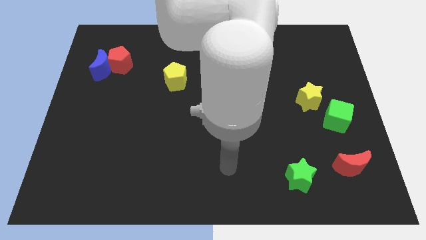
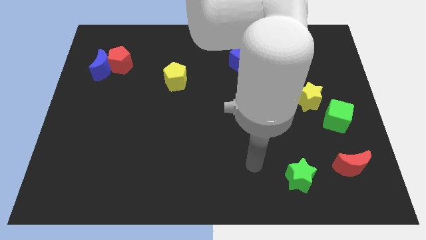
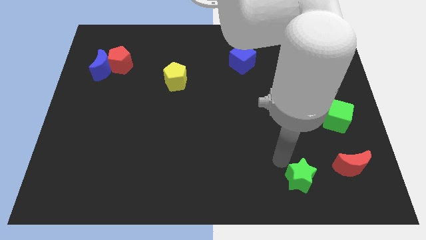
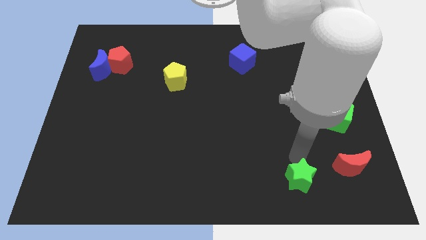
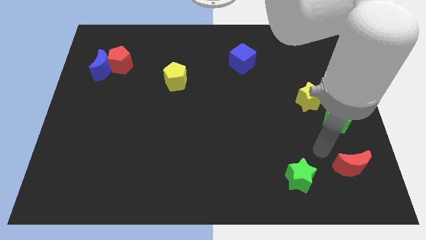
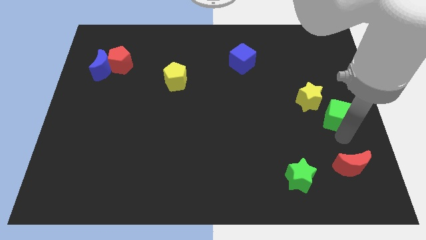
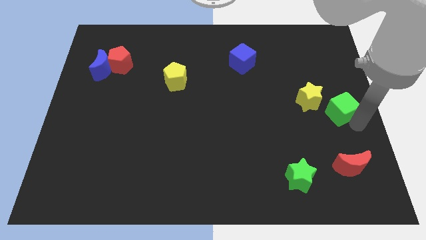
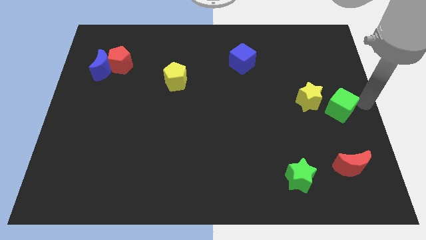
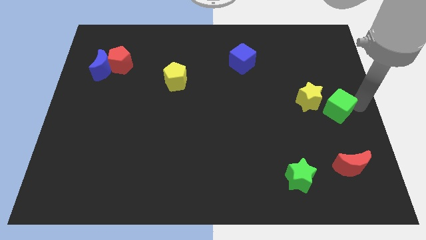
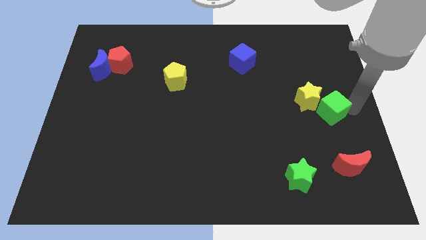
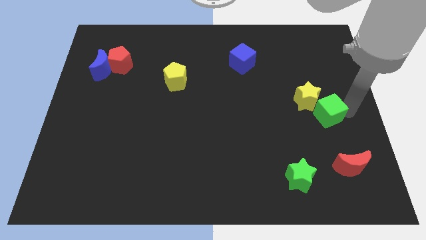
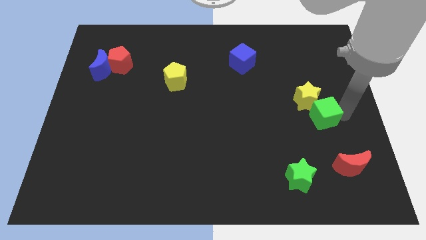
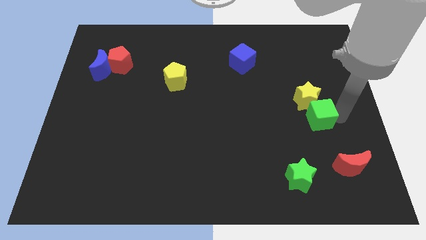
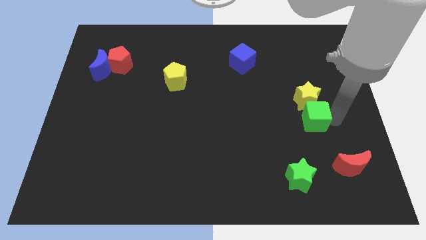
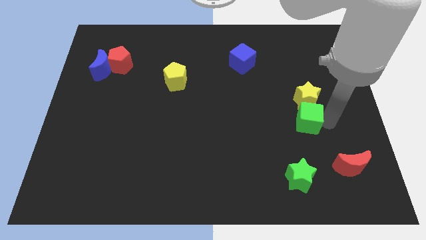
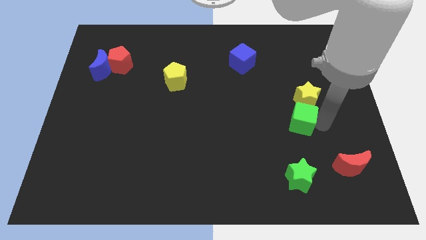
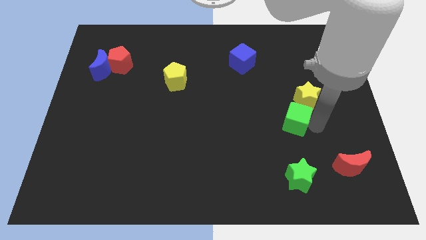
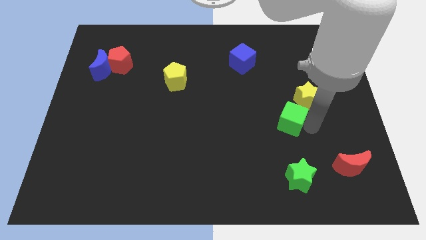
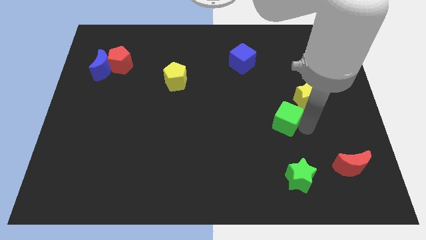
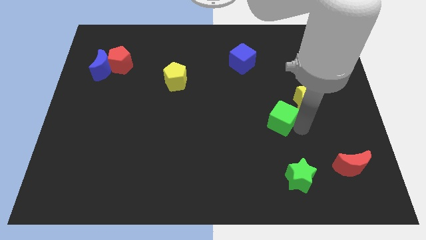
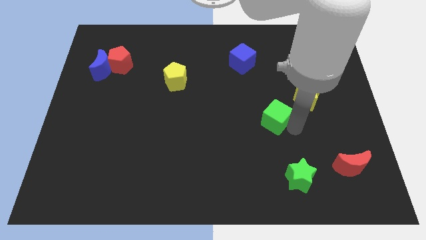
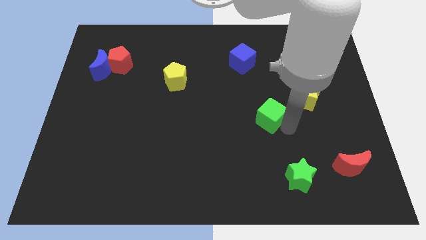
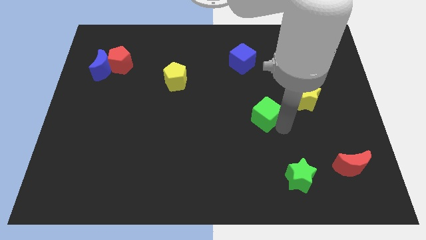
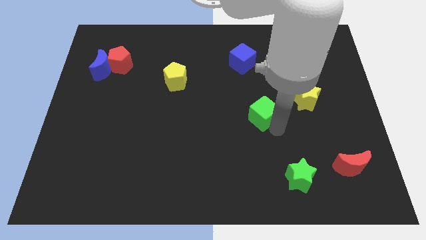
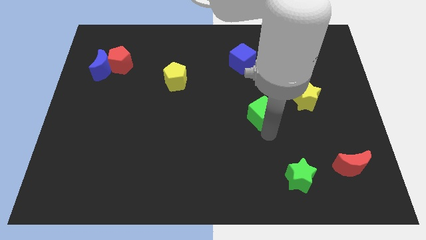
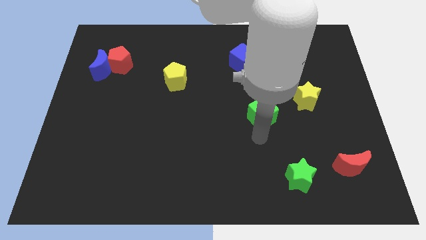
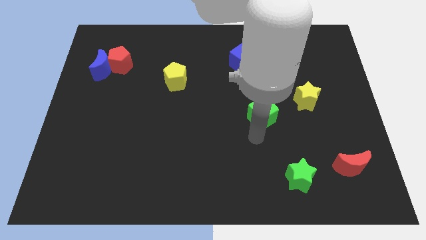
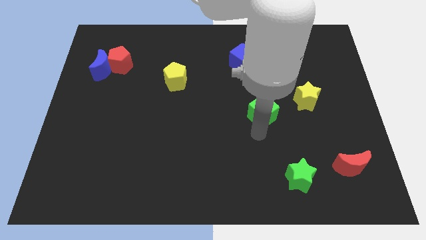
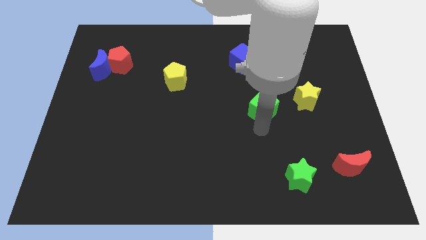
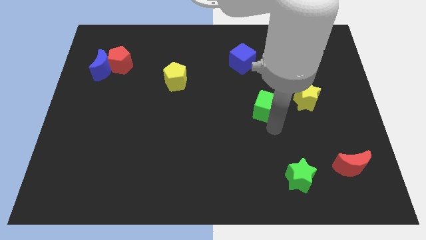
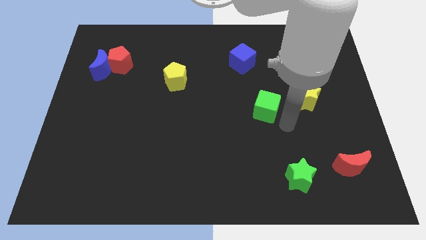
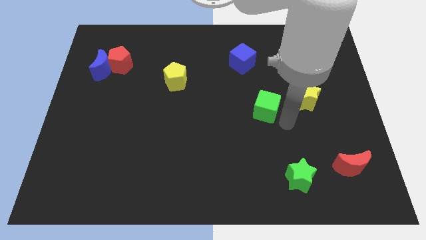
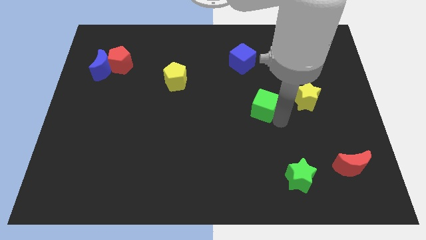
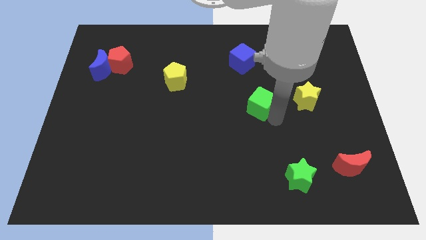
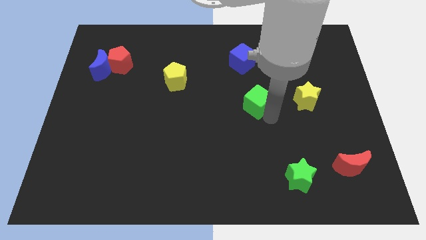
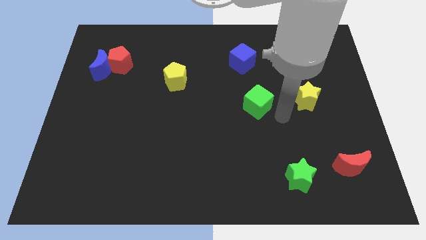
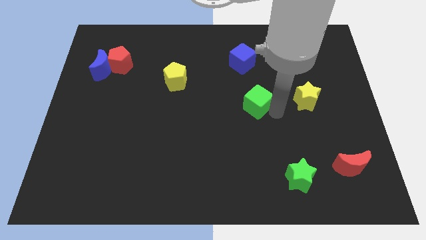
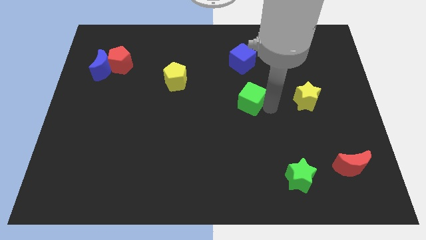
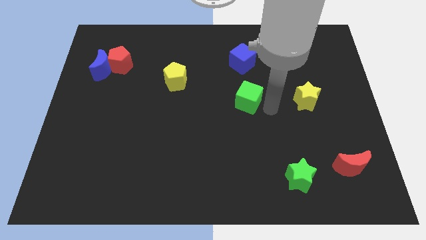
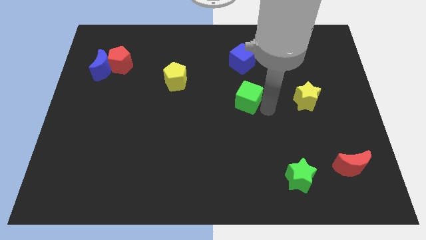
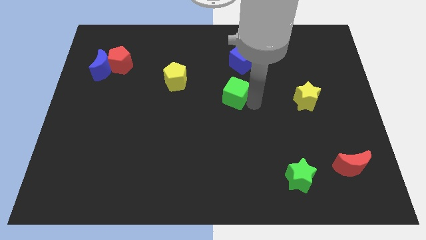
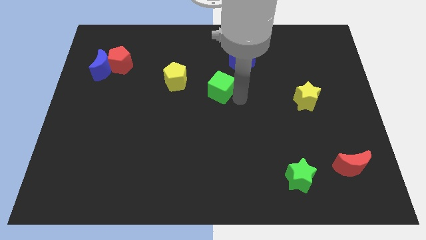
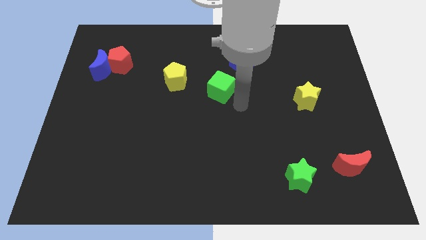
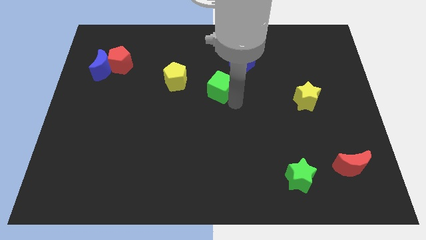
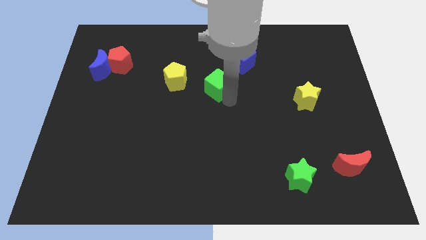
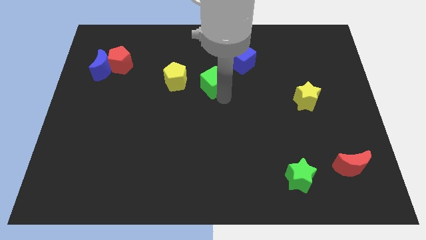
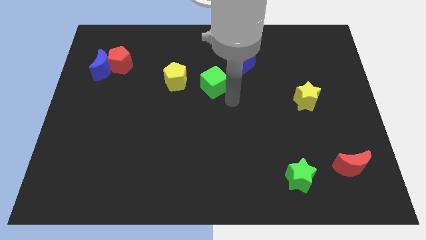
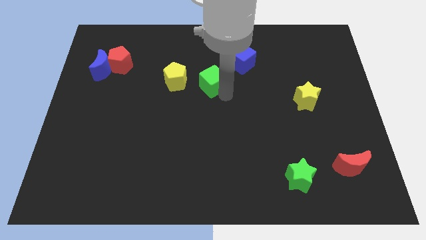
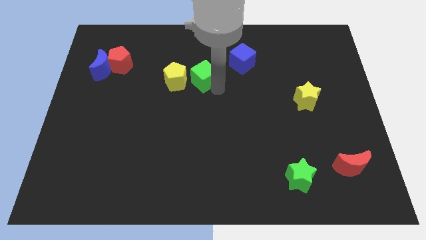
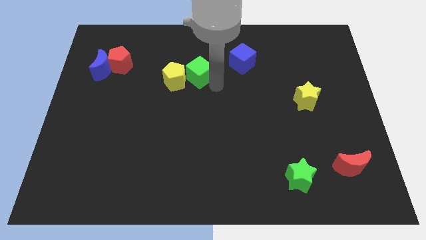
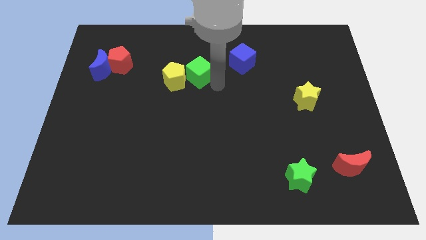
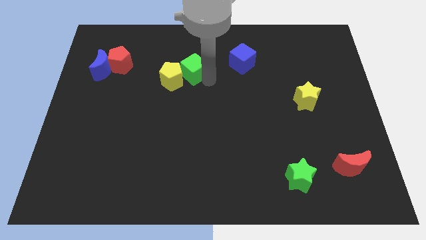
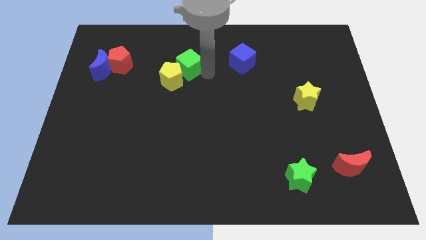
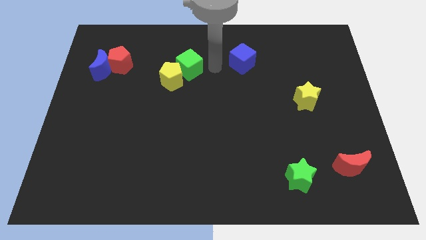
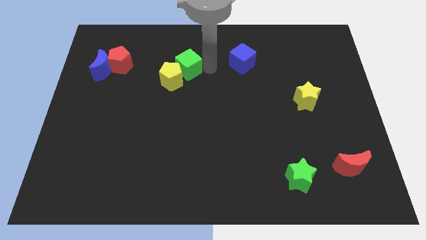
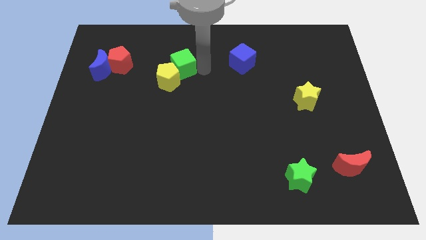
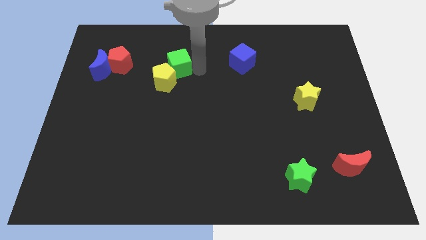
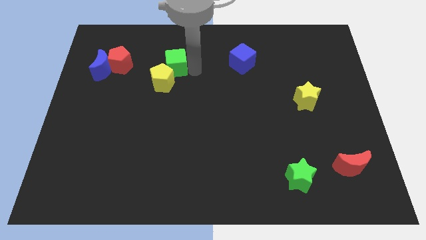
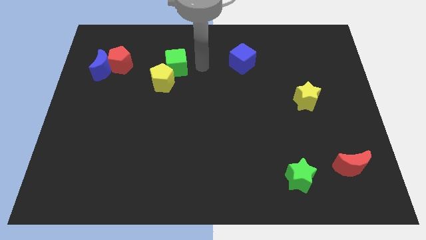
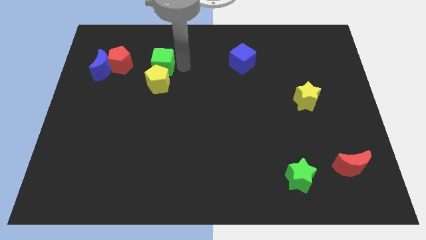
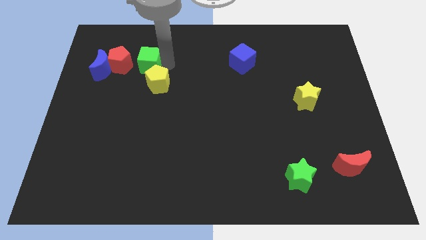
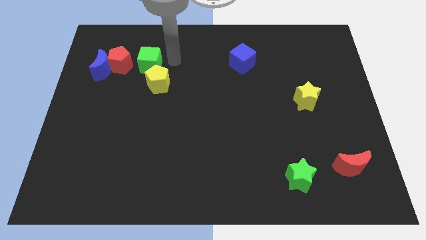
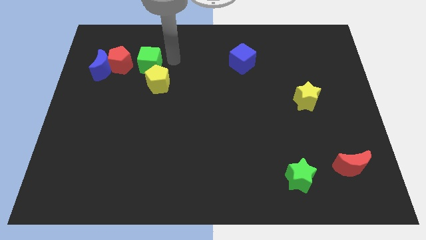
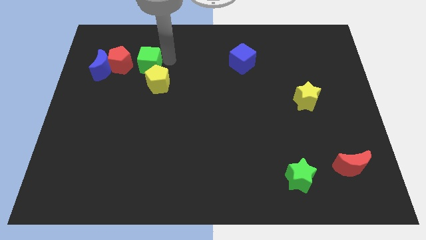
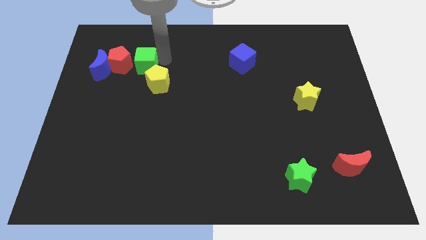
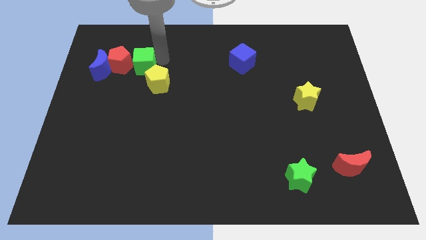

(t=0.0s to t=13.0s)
slide the green cube to the red pentagon
